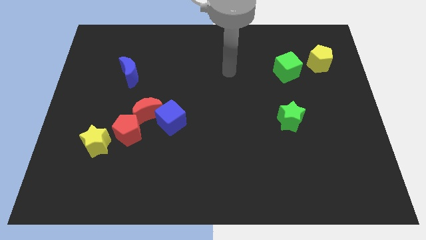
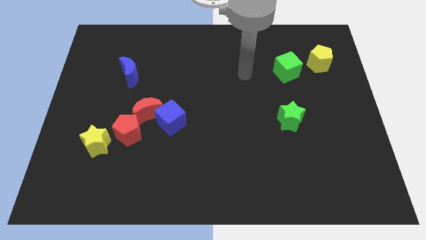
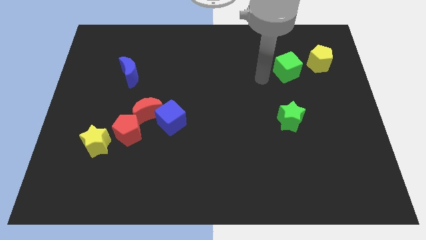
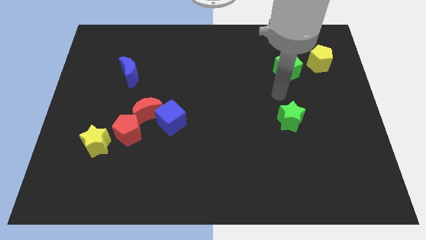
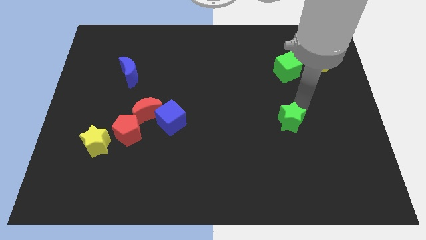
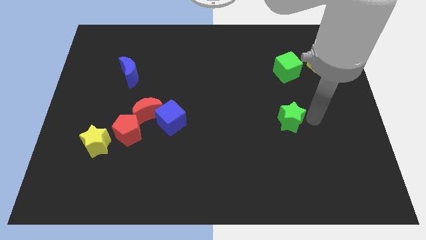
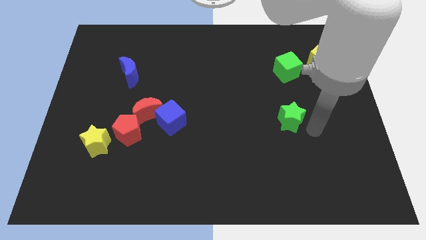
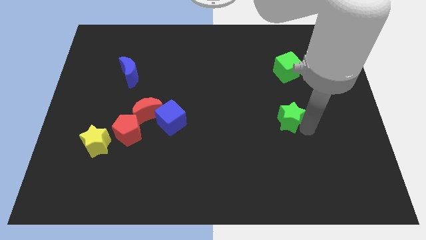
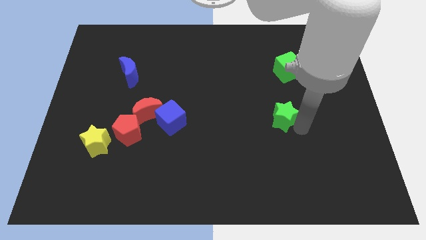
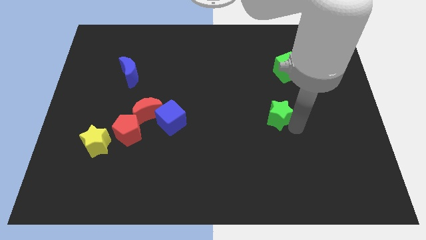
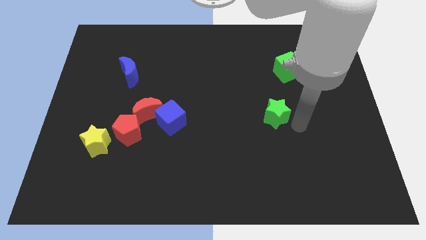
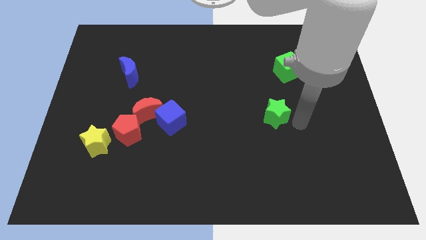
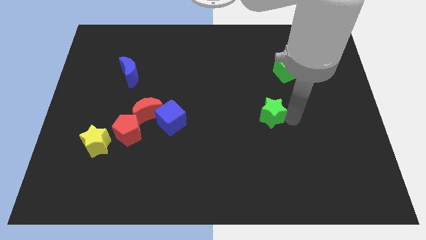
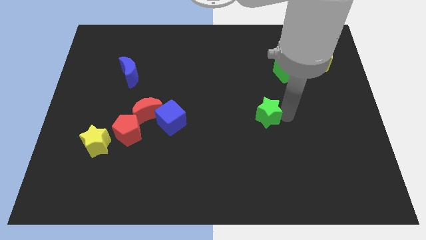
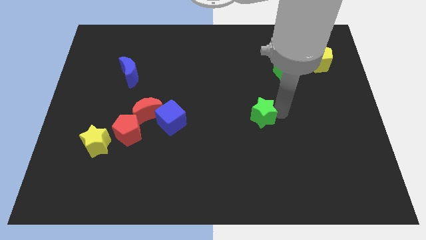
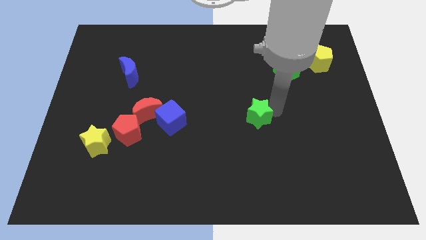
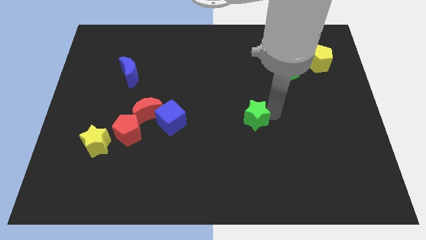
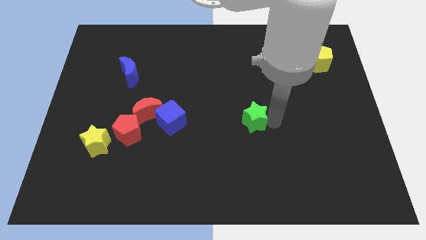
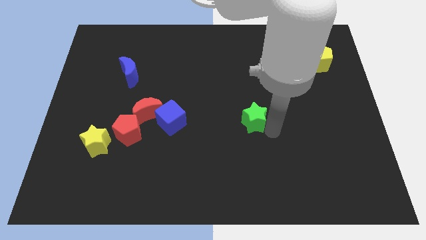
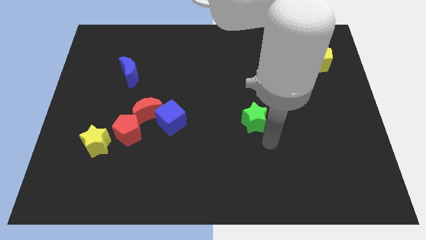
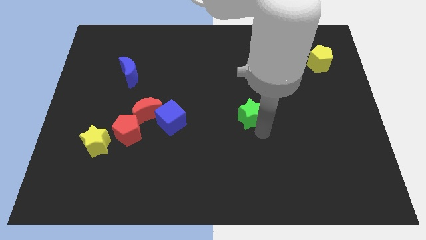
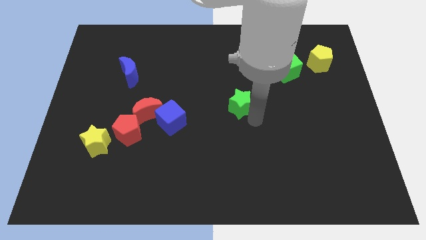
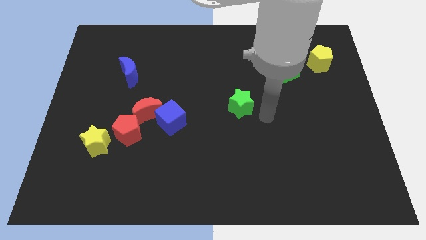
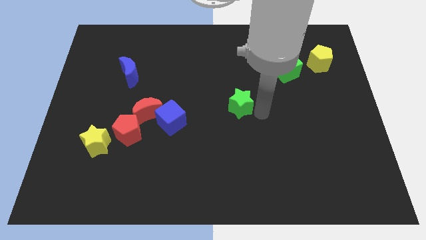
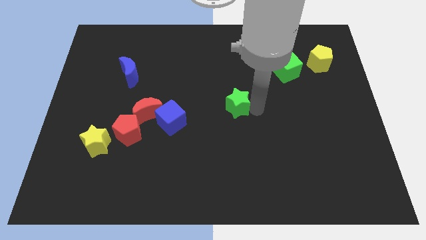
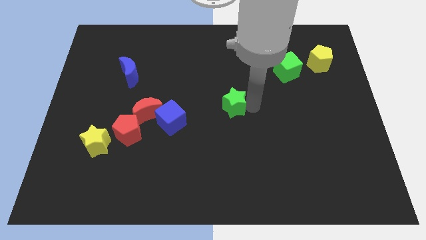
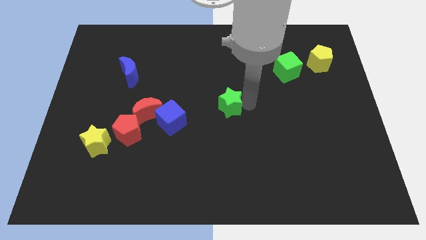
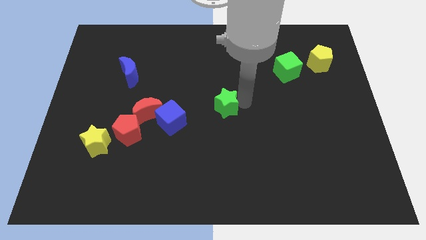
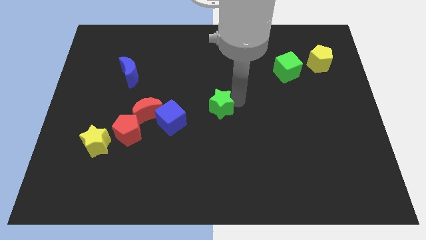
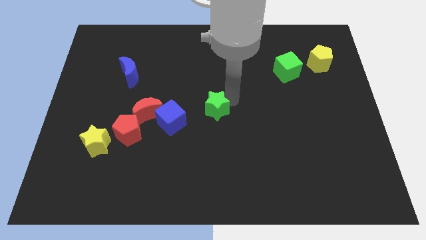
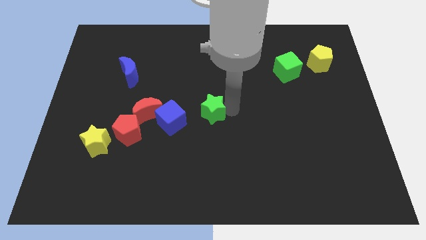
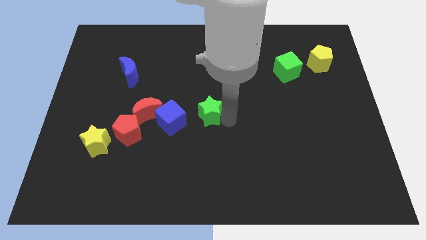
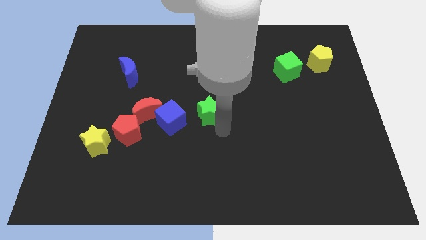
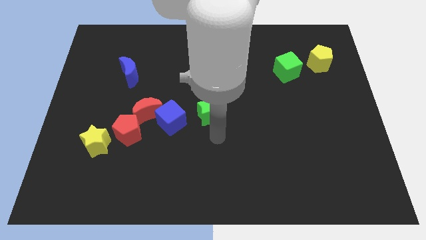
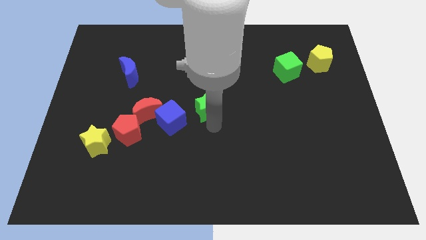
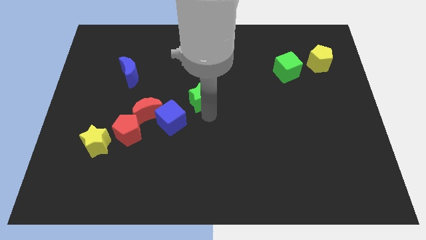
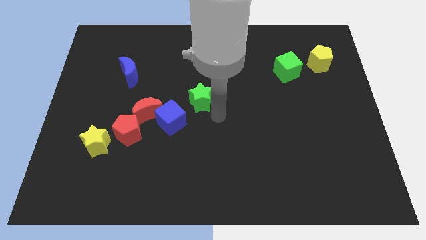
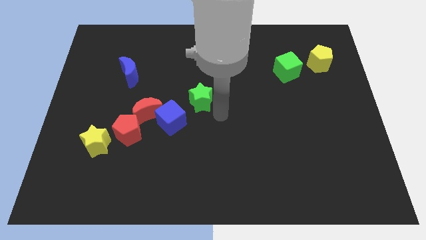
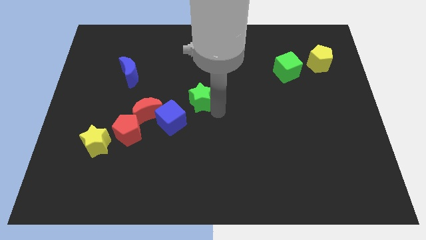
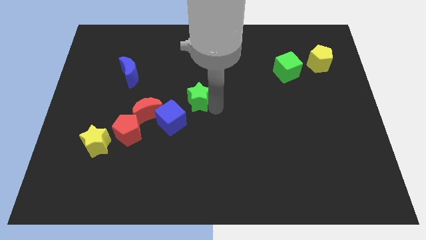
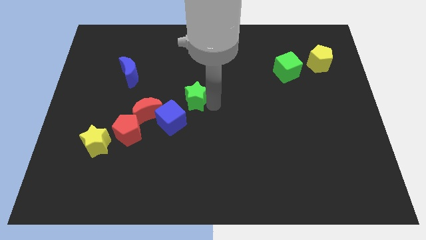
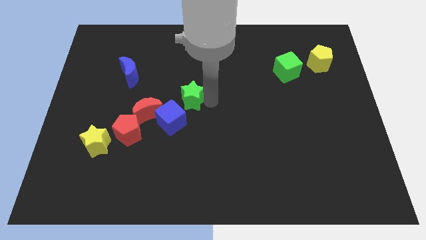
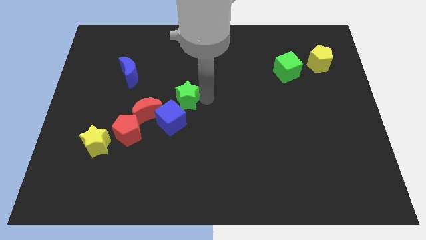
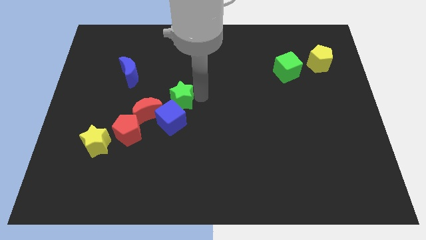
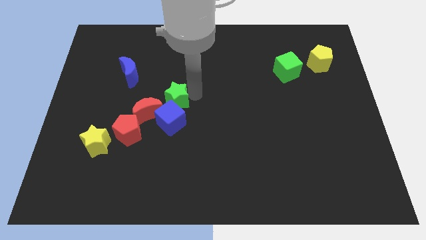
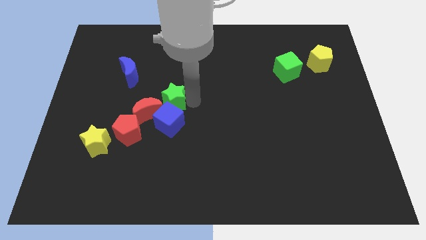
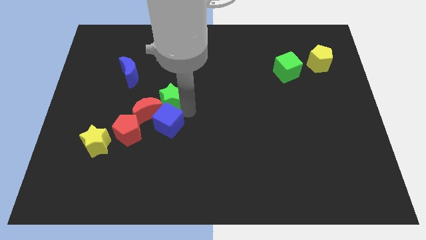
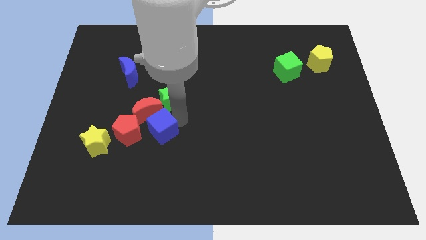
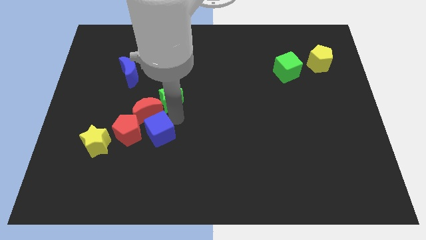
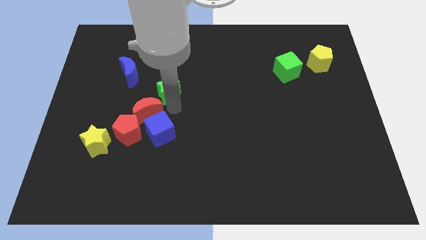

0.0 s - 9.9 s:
put the green star to the top side of the red moon

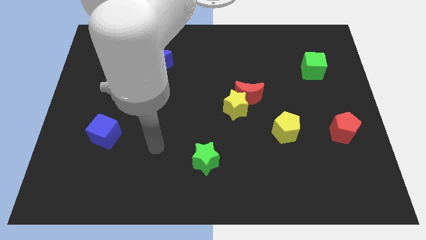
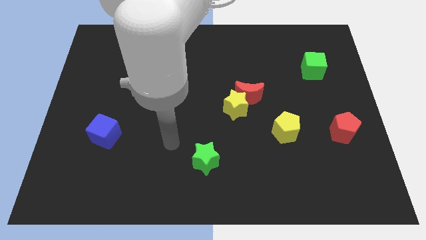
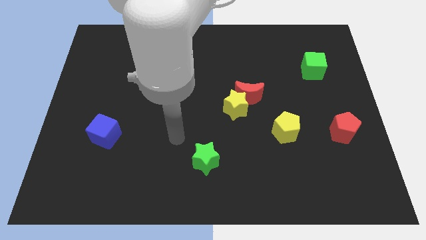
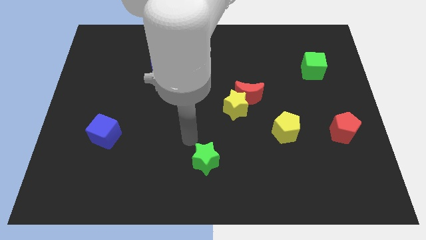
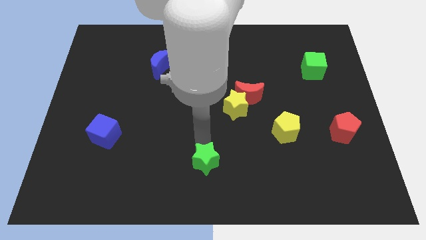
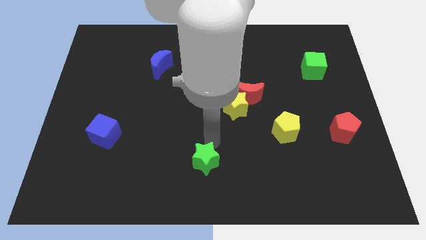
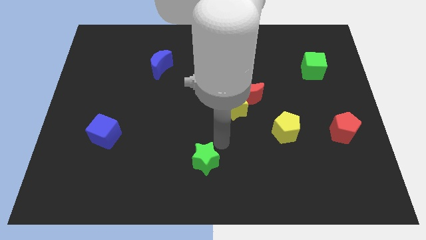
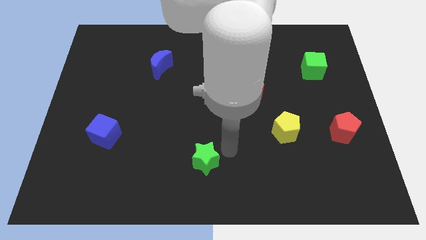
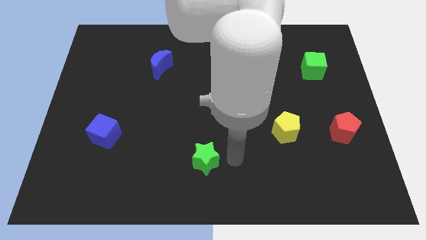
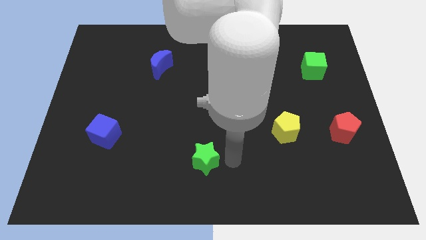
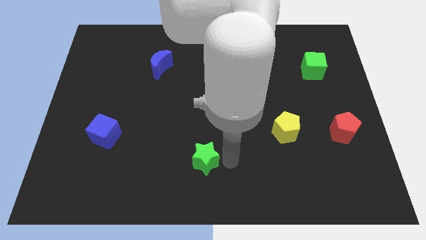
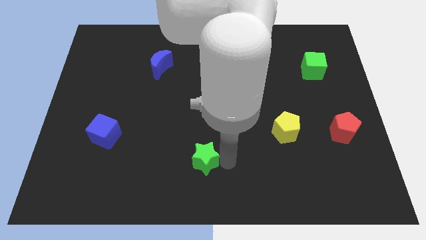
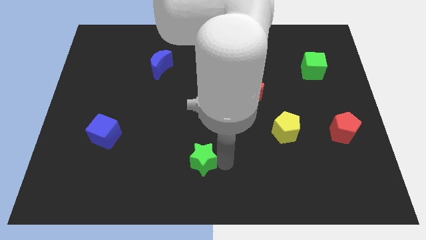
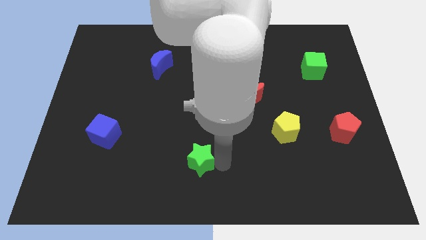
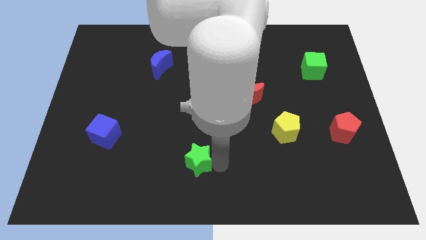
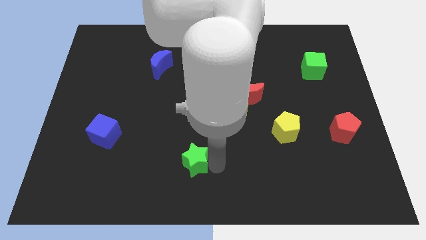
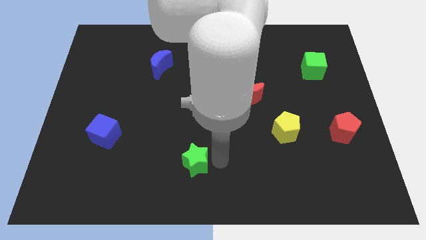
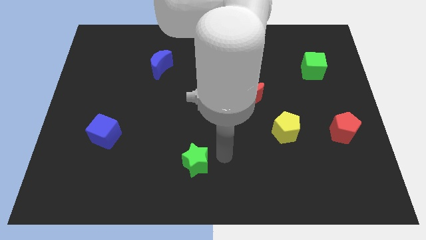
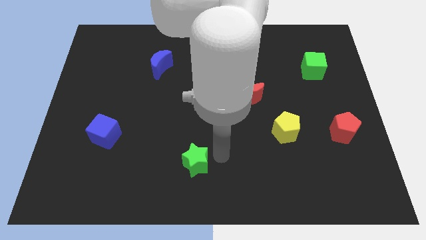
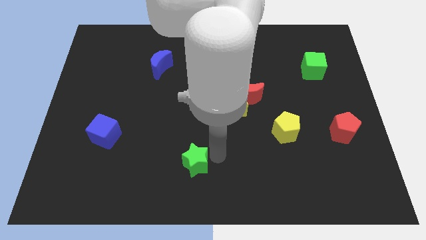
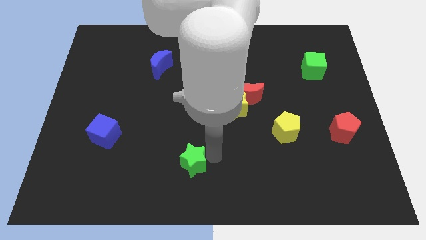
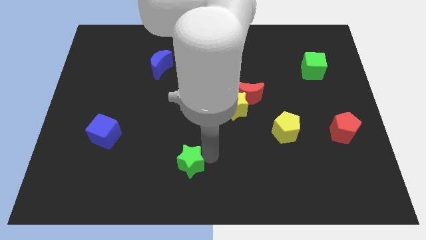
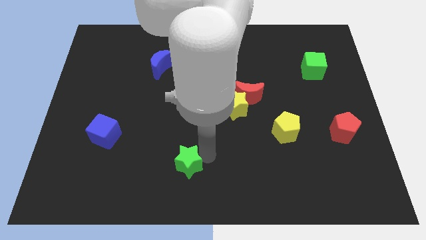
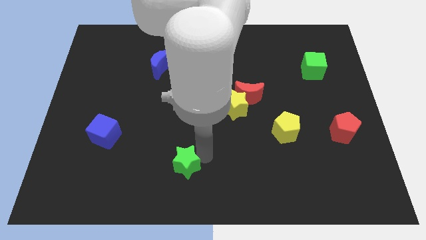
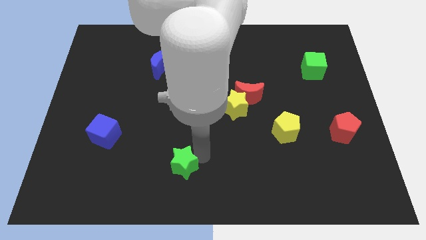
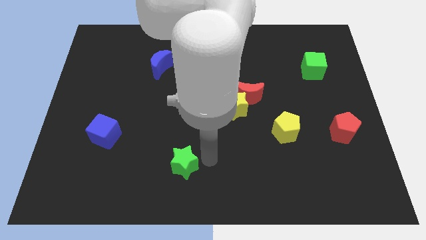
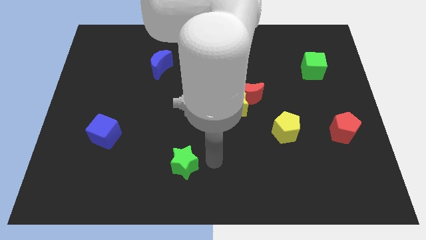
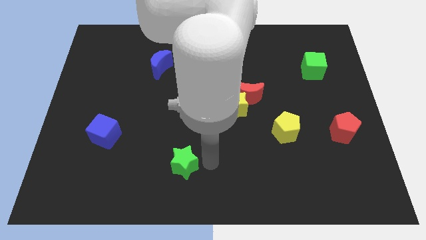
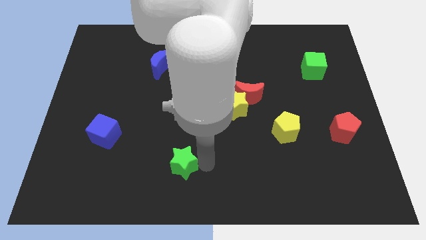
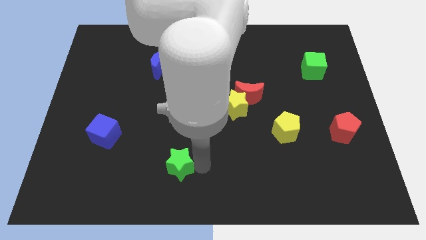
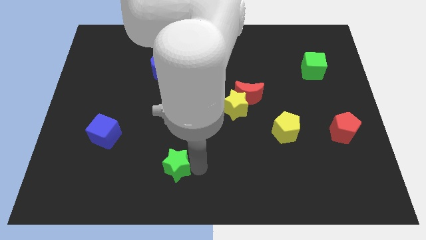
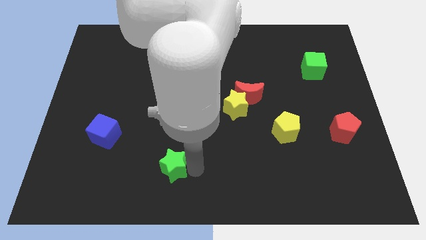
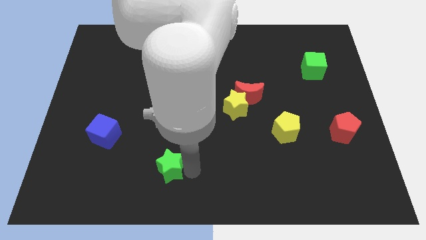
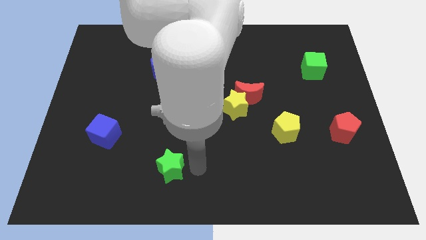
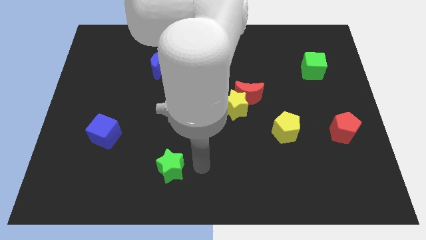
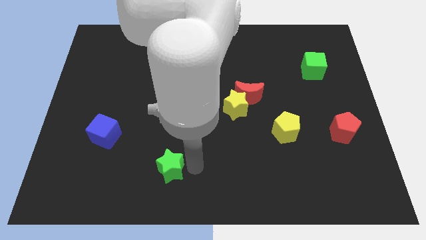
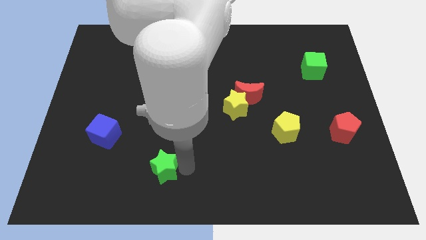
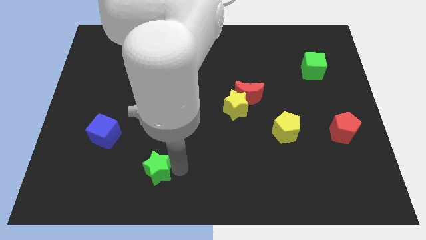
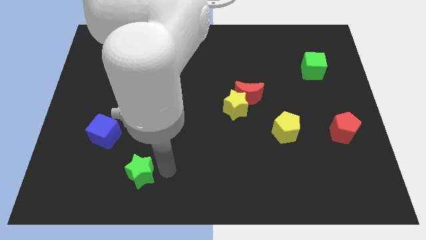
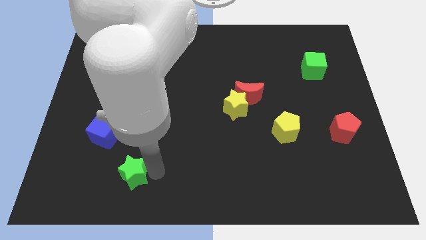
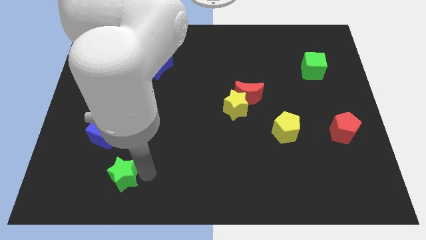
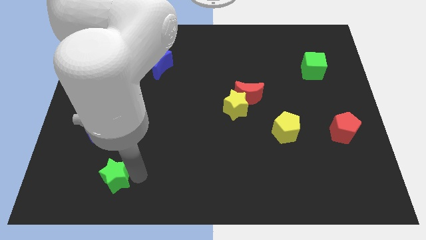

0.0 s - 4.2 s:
slide the green star to the bottom side of the blue cube
